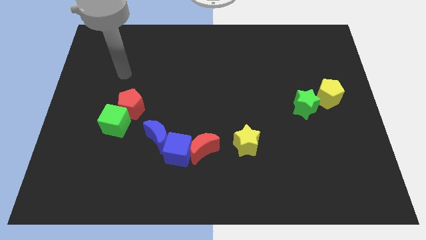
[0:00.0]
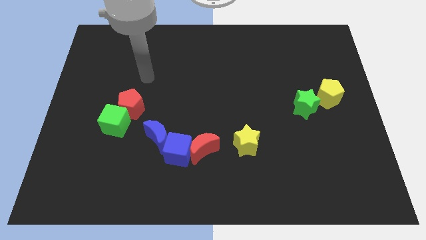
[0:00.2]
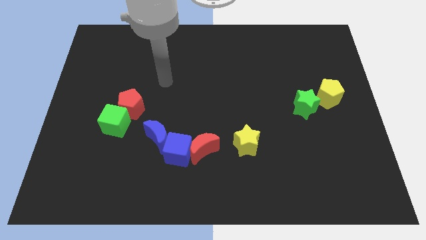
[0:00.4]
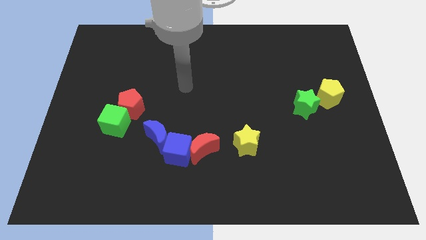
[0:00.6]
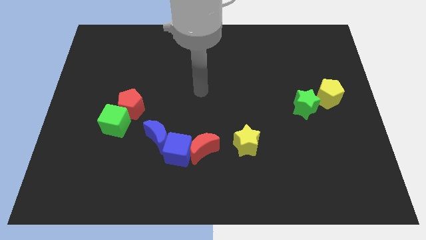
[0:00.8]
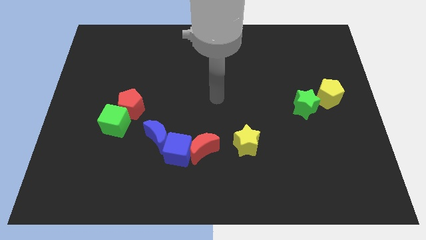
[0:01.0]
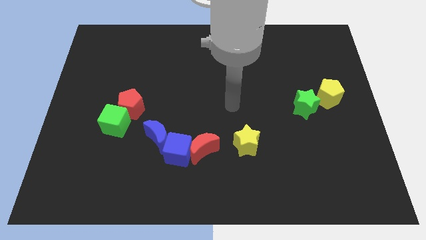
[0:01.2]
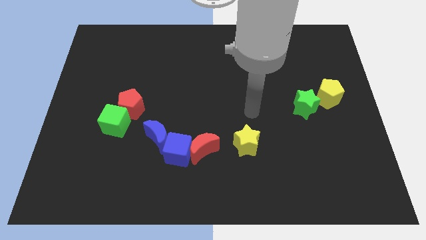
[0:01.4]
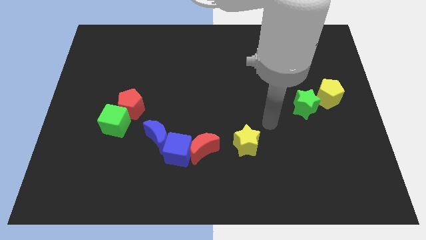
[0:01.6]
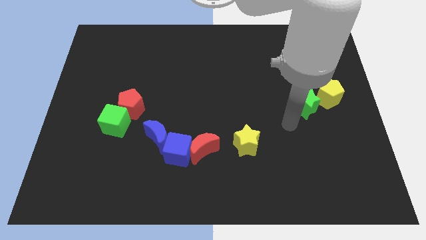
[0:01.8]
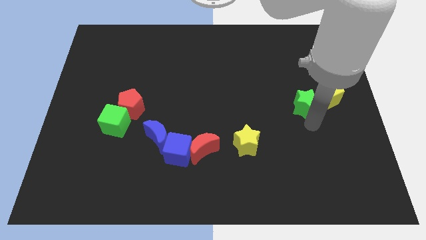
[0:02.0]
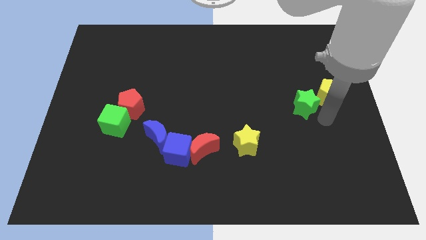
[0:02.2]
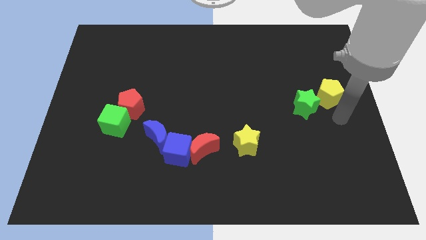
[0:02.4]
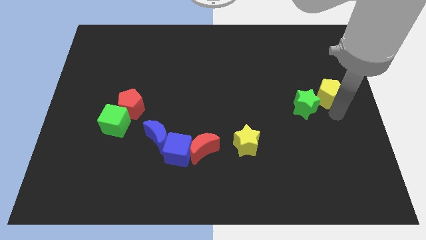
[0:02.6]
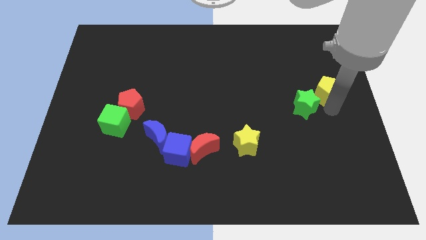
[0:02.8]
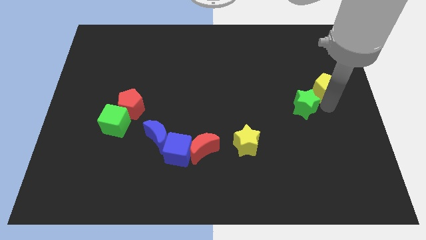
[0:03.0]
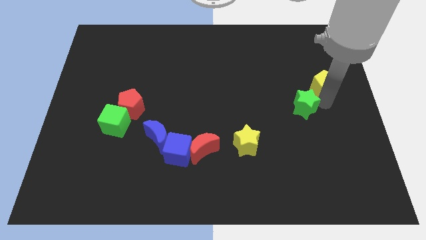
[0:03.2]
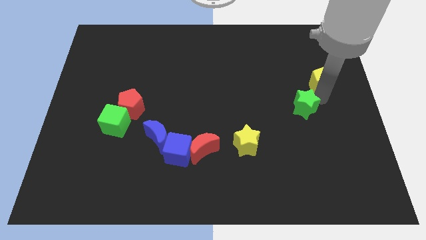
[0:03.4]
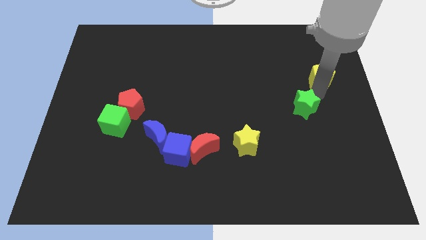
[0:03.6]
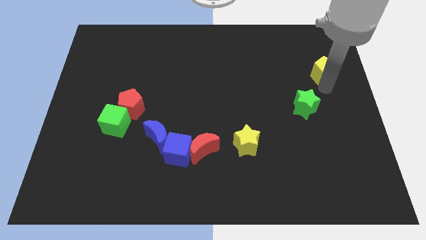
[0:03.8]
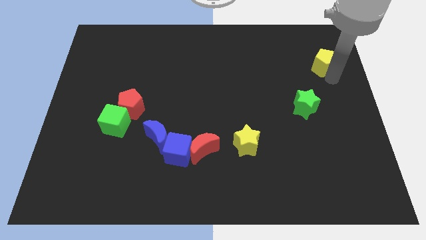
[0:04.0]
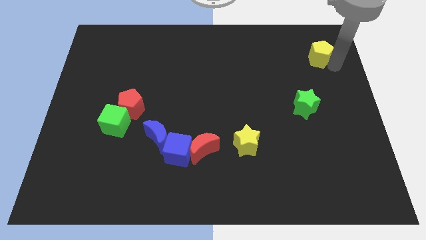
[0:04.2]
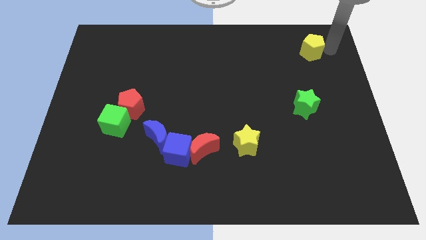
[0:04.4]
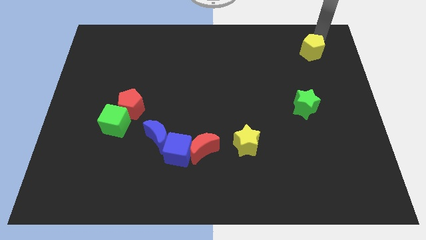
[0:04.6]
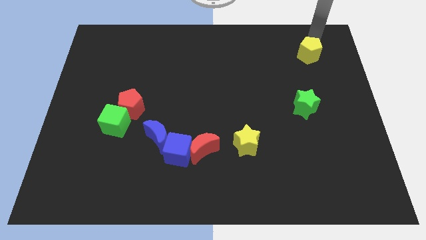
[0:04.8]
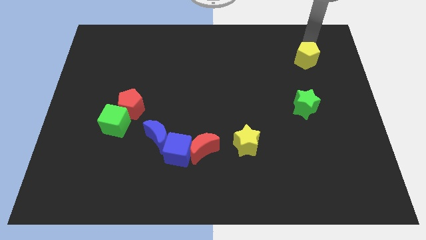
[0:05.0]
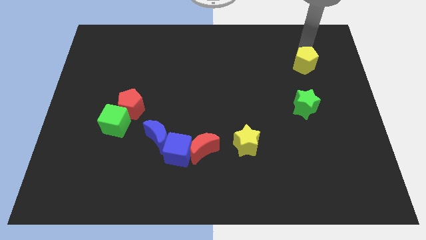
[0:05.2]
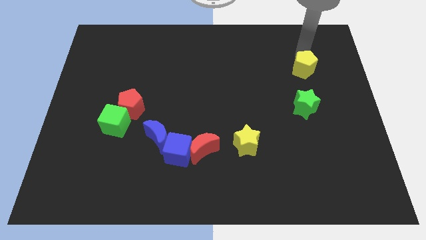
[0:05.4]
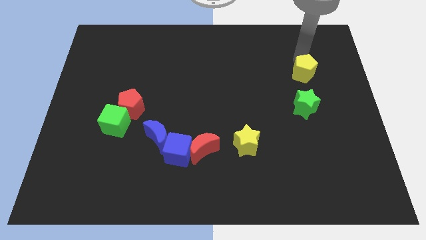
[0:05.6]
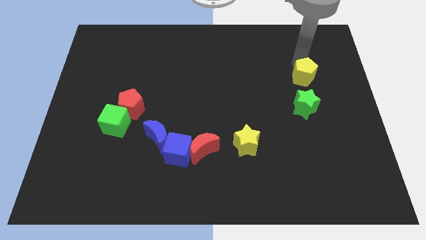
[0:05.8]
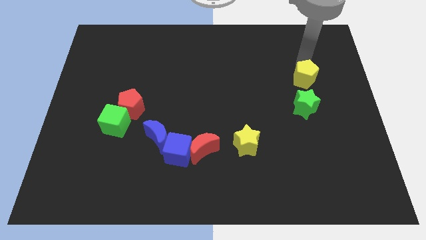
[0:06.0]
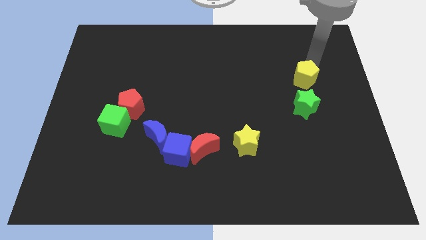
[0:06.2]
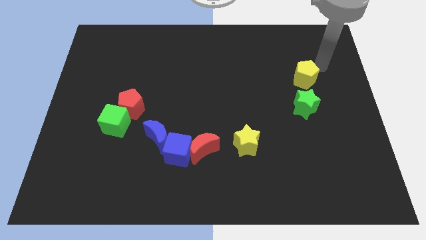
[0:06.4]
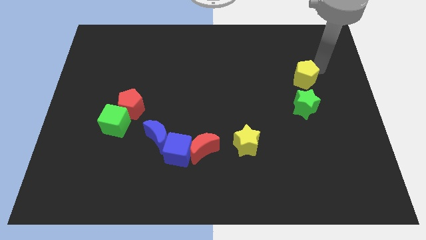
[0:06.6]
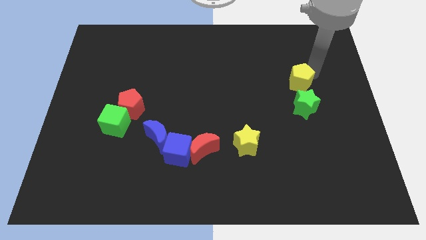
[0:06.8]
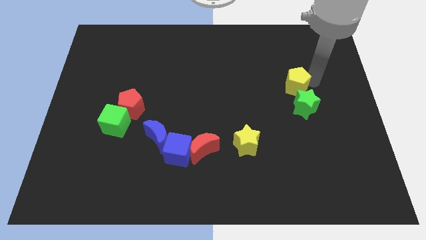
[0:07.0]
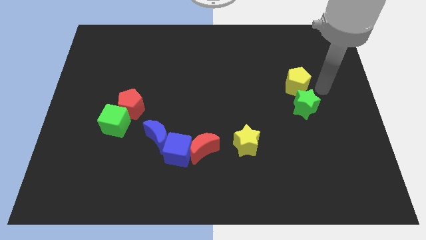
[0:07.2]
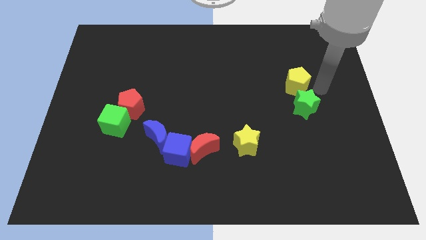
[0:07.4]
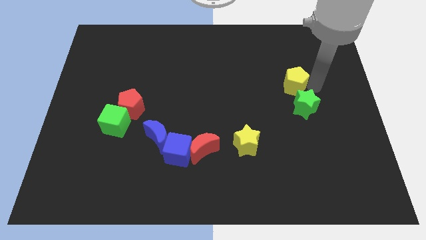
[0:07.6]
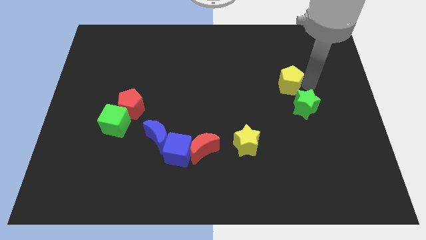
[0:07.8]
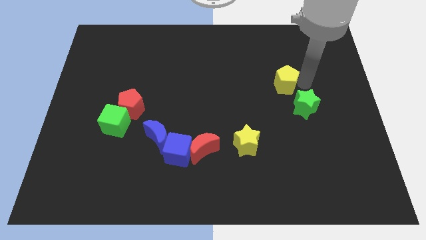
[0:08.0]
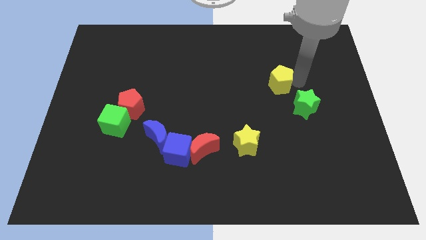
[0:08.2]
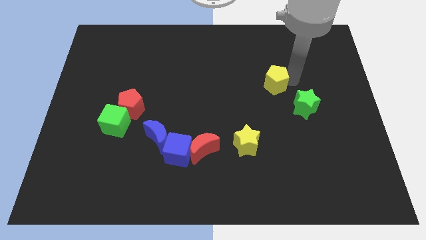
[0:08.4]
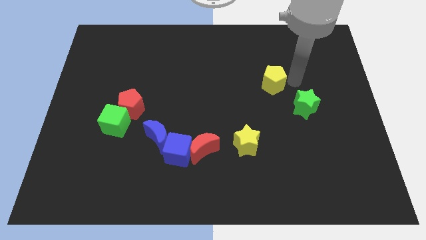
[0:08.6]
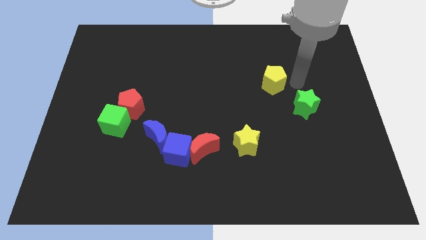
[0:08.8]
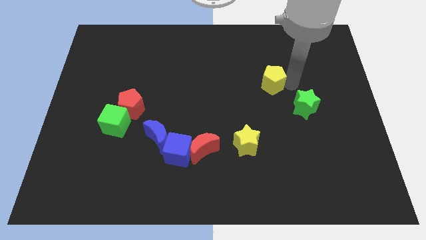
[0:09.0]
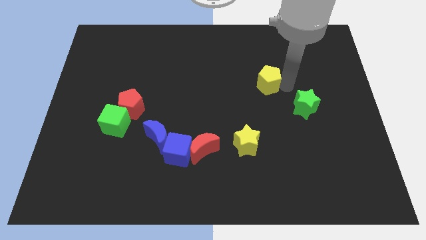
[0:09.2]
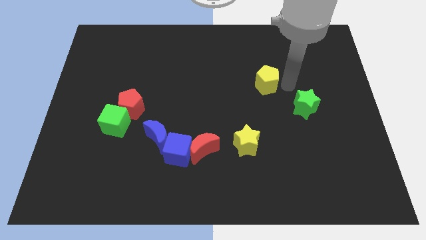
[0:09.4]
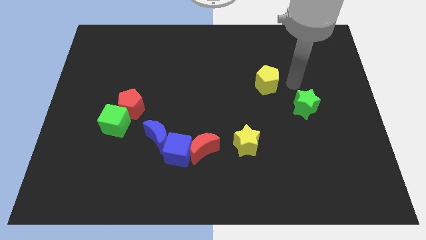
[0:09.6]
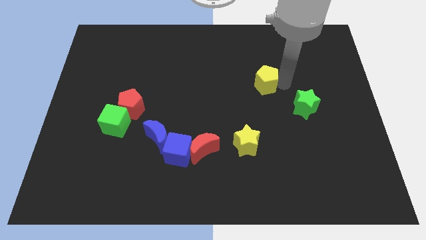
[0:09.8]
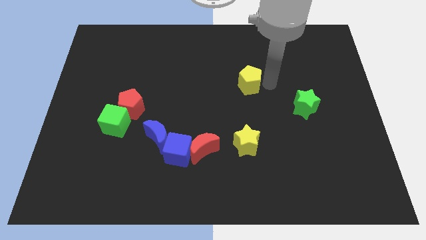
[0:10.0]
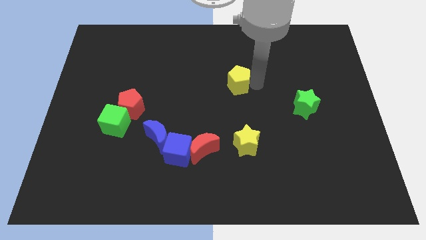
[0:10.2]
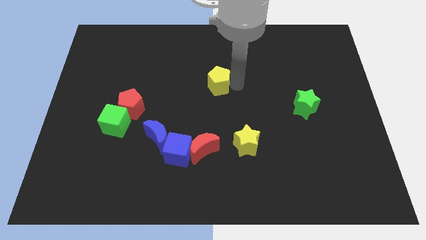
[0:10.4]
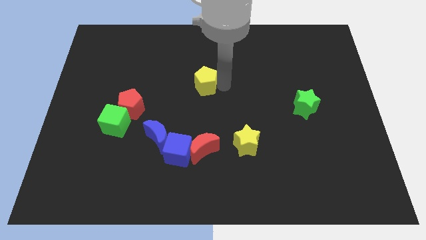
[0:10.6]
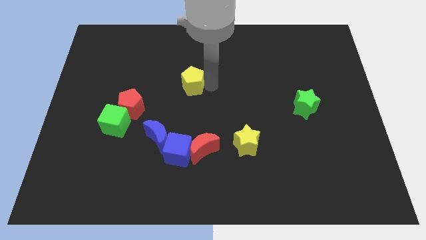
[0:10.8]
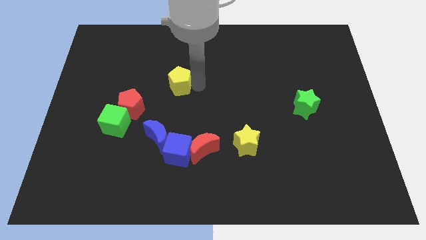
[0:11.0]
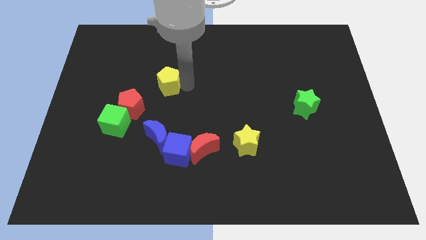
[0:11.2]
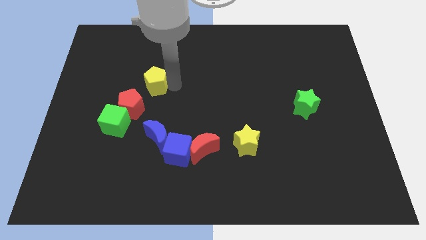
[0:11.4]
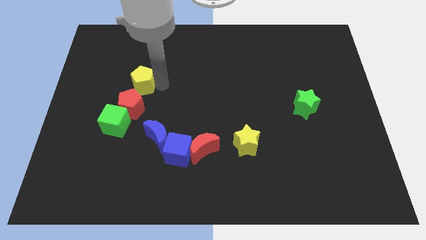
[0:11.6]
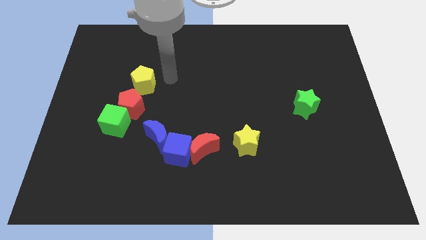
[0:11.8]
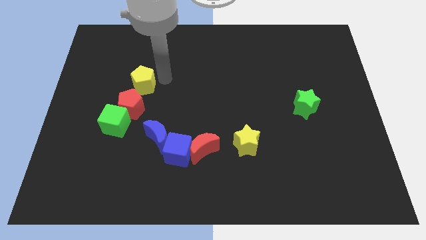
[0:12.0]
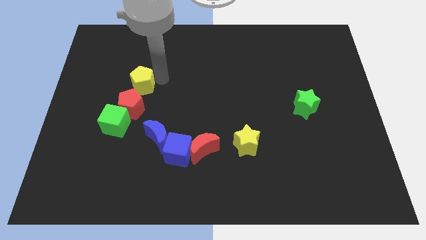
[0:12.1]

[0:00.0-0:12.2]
move the yellow pentagon above the green cube

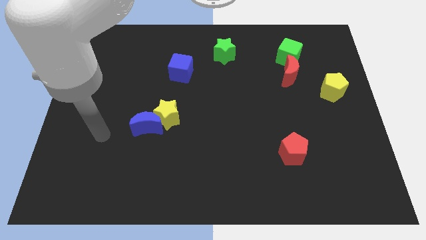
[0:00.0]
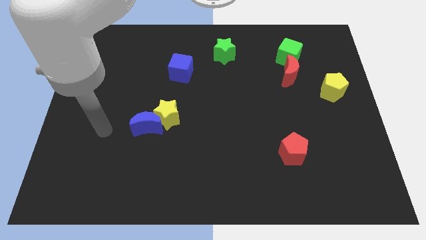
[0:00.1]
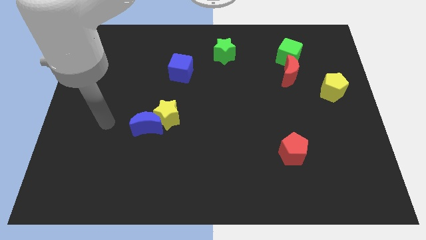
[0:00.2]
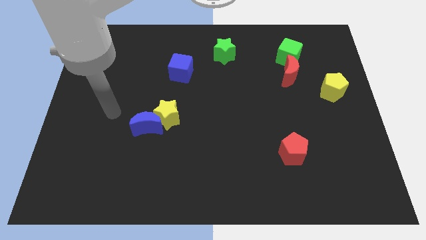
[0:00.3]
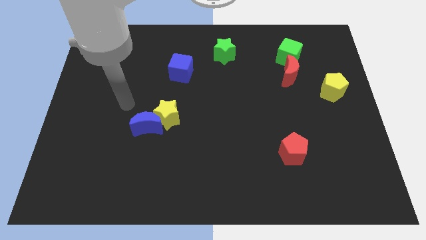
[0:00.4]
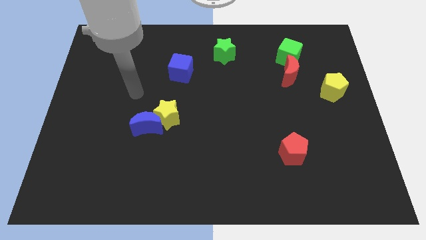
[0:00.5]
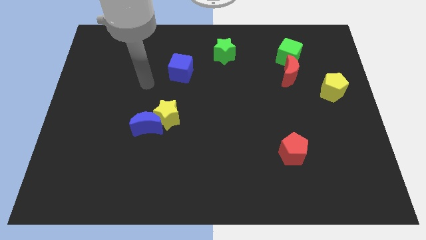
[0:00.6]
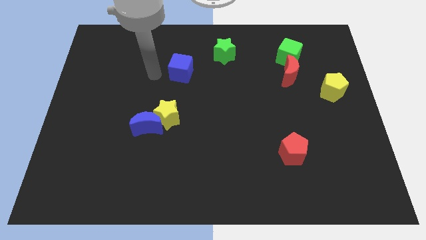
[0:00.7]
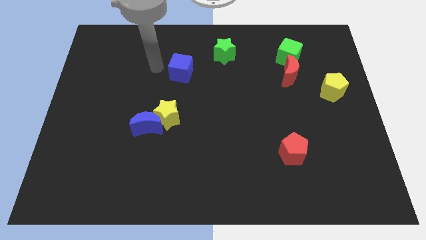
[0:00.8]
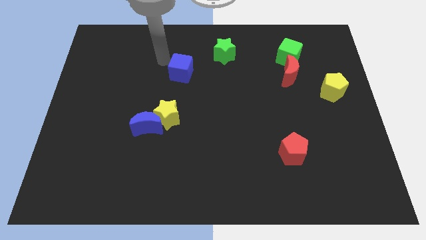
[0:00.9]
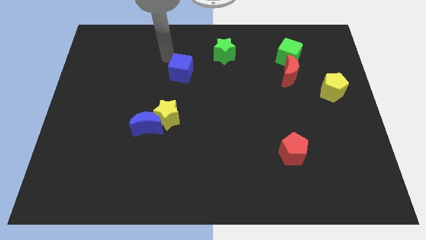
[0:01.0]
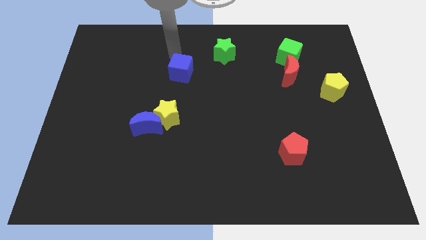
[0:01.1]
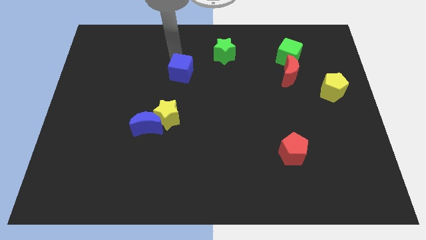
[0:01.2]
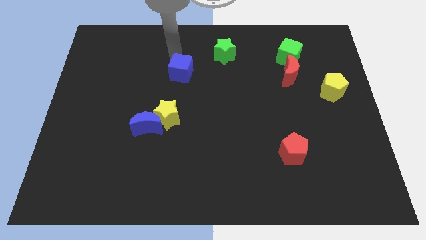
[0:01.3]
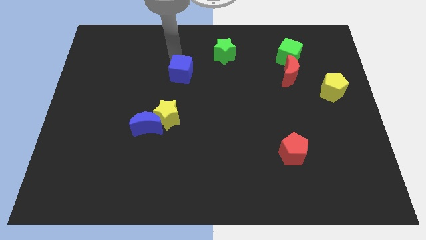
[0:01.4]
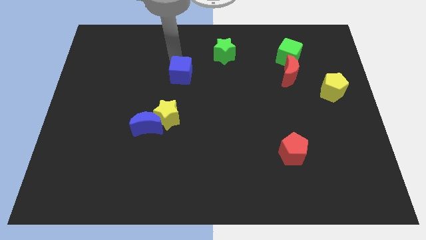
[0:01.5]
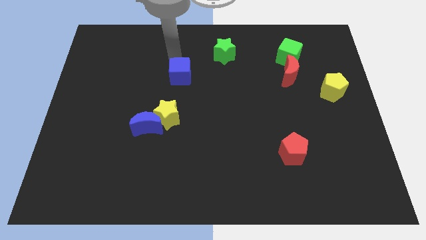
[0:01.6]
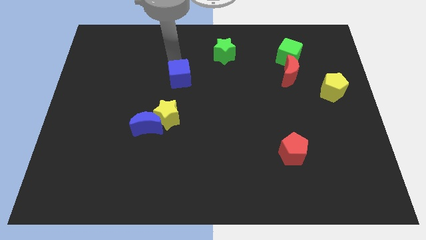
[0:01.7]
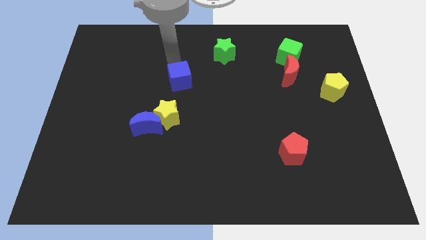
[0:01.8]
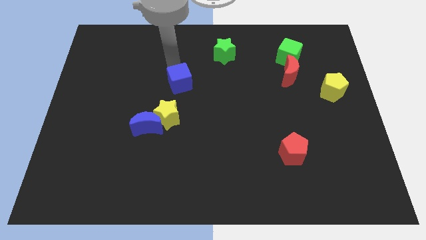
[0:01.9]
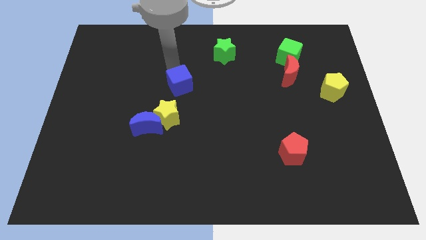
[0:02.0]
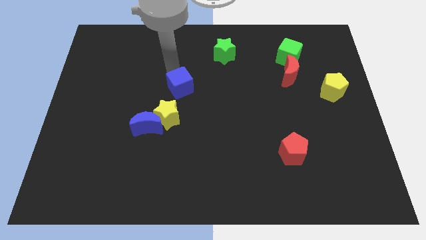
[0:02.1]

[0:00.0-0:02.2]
slide the blue cube to the top right side of the yellow star
